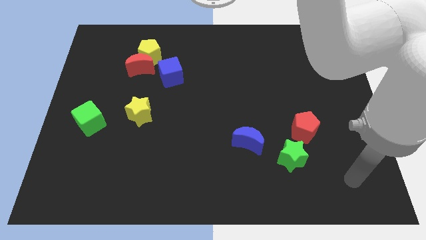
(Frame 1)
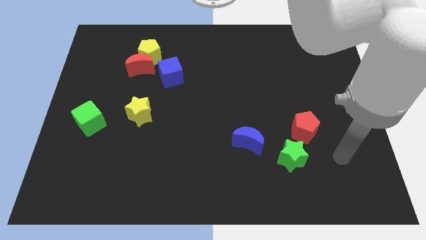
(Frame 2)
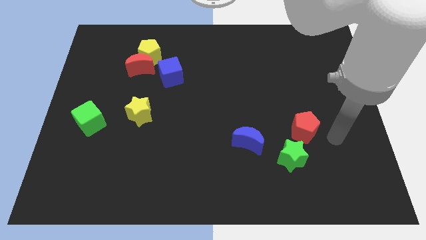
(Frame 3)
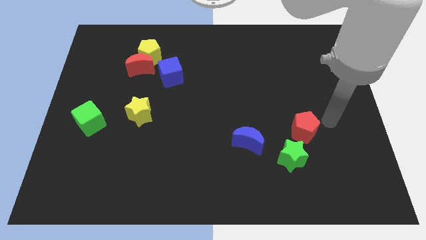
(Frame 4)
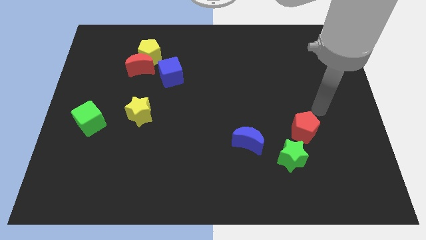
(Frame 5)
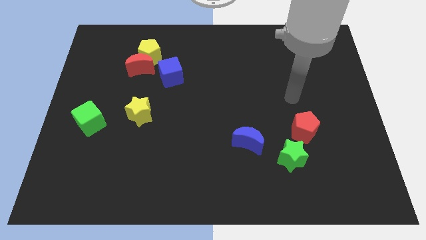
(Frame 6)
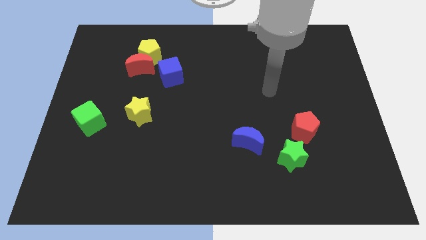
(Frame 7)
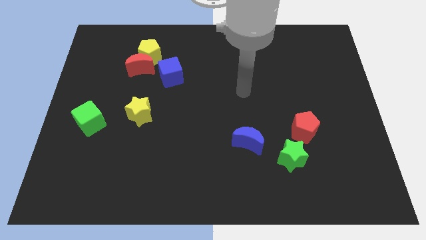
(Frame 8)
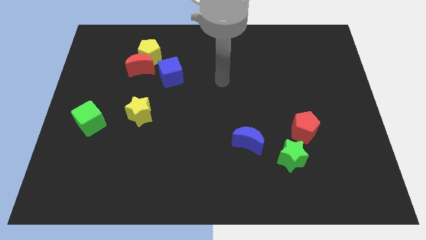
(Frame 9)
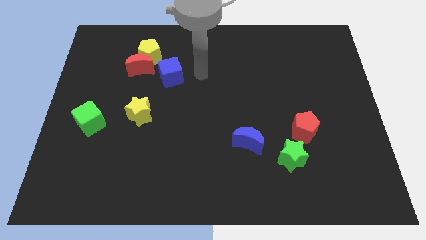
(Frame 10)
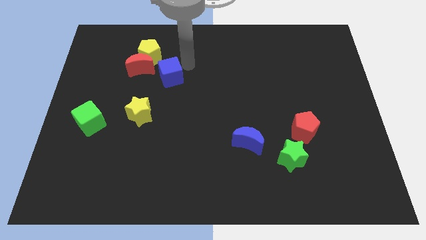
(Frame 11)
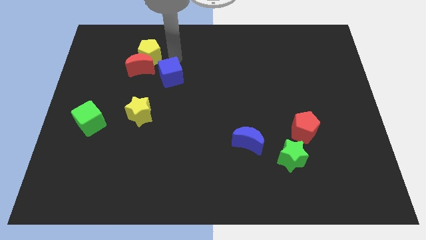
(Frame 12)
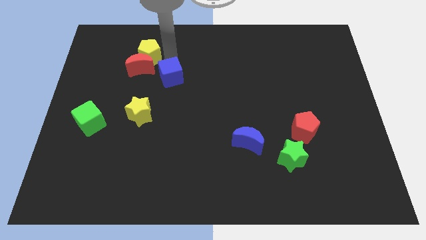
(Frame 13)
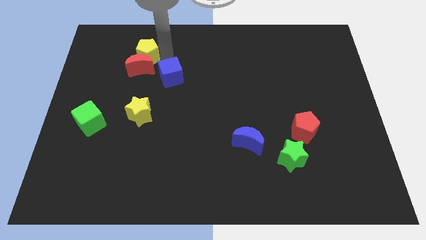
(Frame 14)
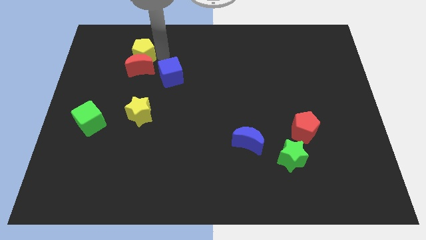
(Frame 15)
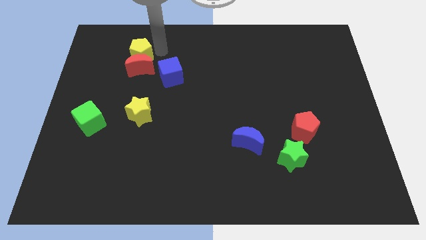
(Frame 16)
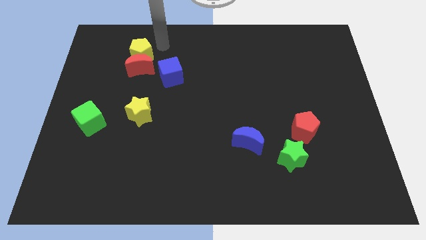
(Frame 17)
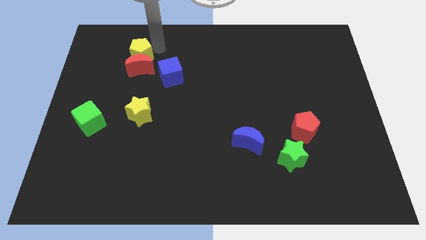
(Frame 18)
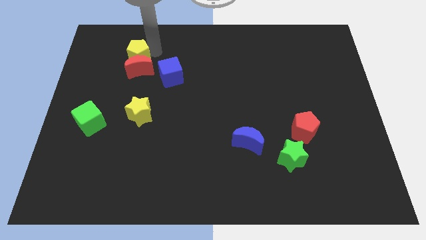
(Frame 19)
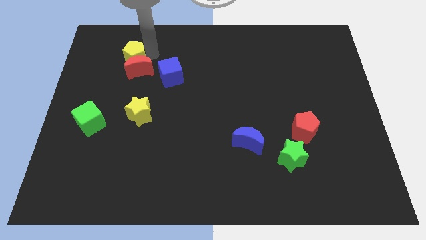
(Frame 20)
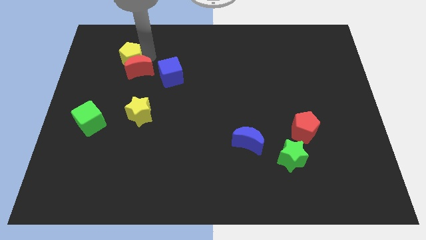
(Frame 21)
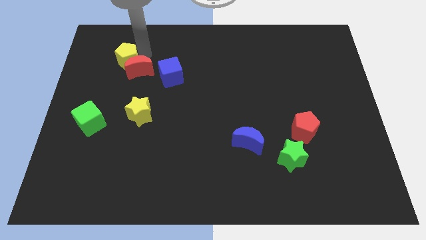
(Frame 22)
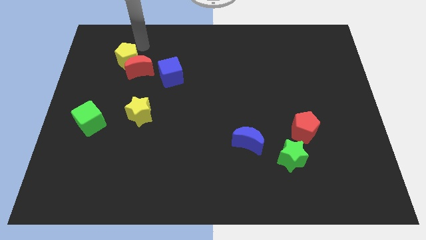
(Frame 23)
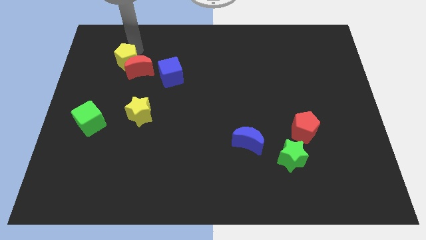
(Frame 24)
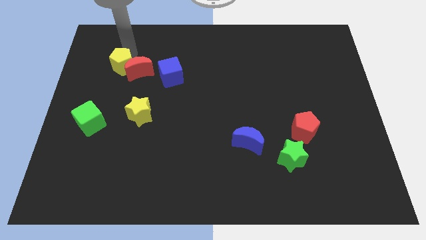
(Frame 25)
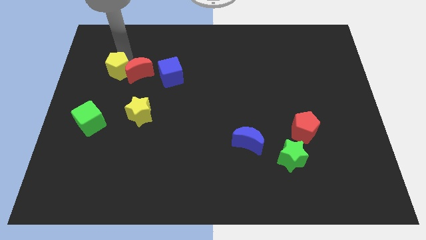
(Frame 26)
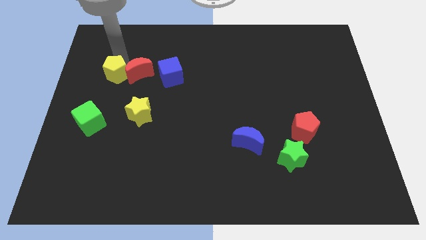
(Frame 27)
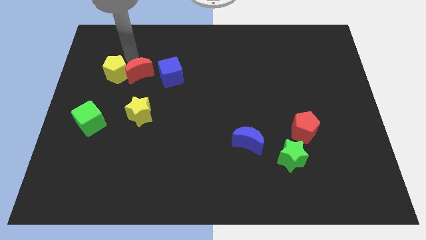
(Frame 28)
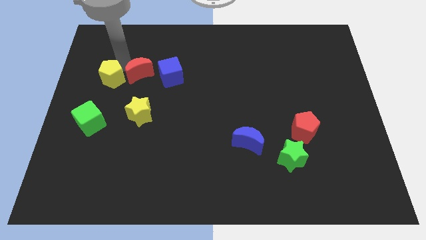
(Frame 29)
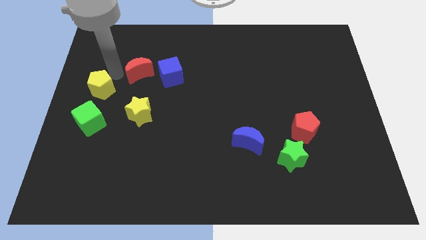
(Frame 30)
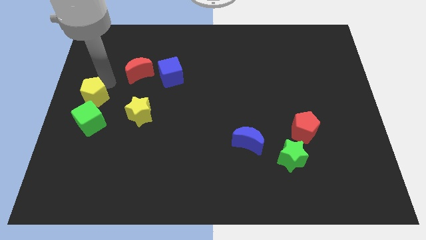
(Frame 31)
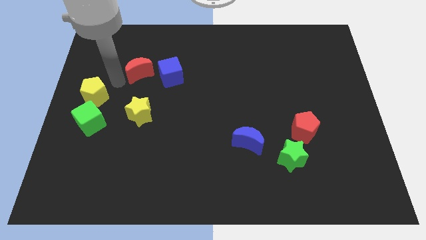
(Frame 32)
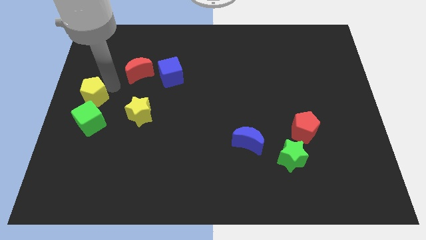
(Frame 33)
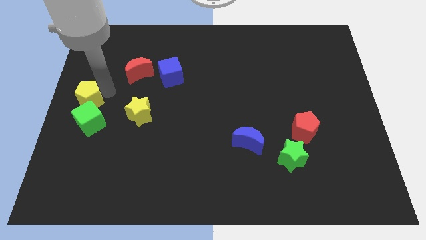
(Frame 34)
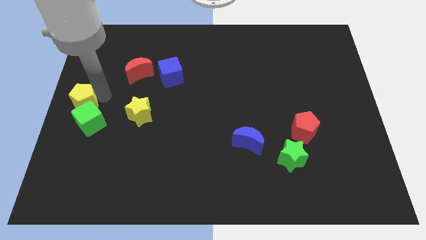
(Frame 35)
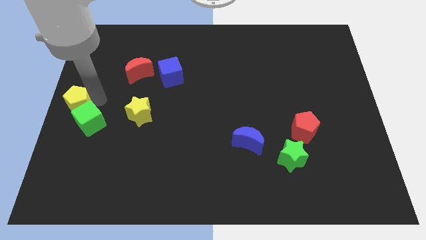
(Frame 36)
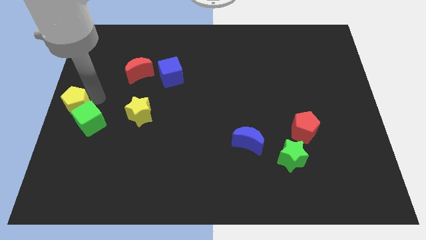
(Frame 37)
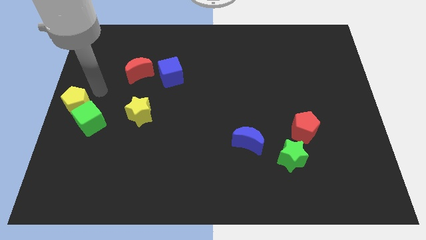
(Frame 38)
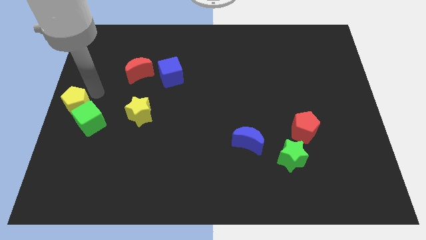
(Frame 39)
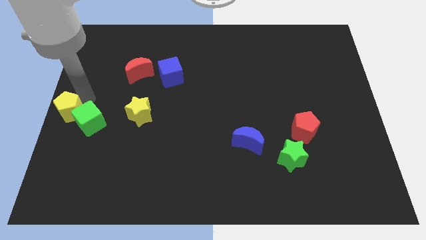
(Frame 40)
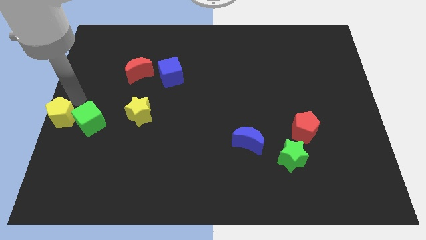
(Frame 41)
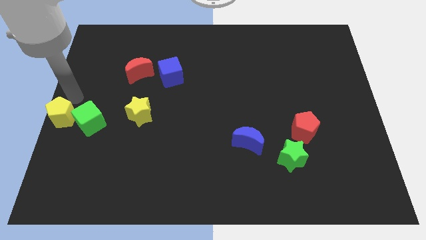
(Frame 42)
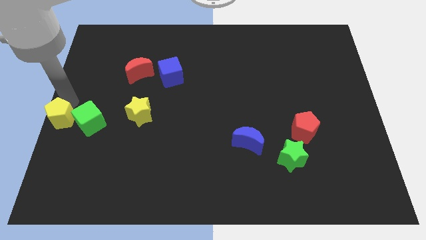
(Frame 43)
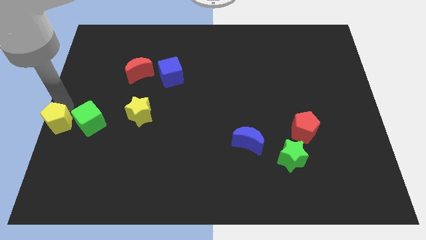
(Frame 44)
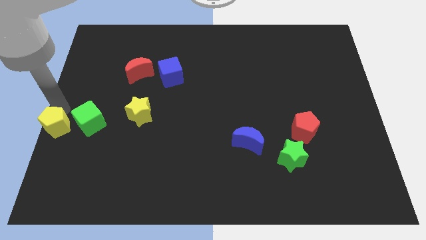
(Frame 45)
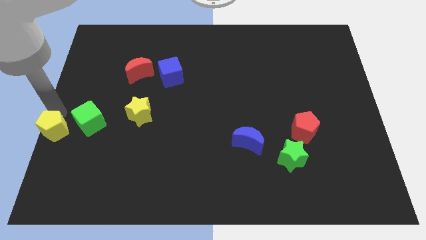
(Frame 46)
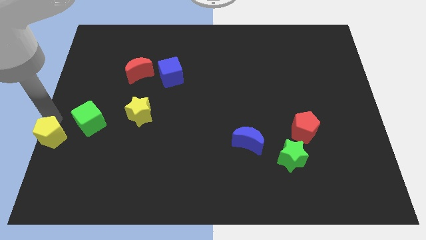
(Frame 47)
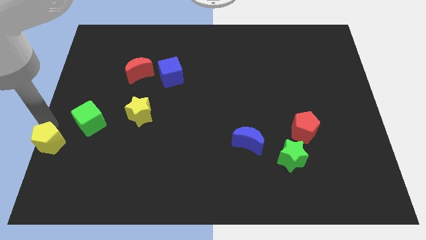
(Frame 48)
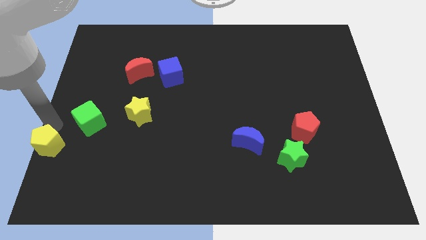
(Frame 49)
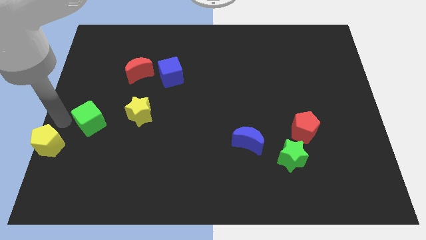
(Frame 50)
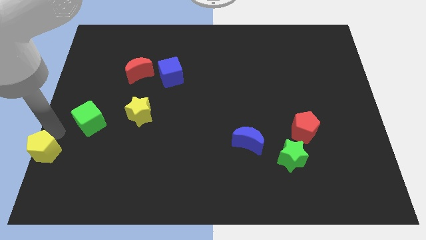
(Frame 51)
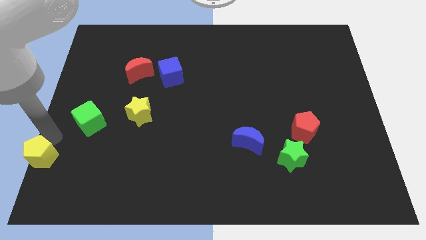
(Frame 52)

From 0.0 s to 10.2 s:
put the yellow pentagon to the bottom left

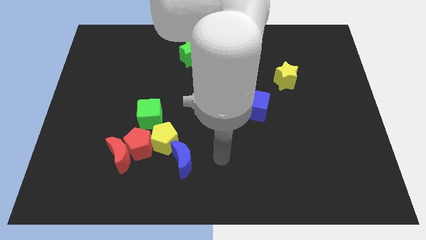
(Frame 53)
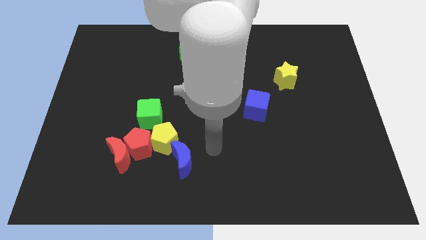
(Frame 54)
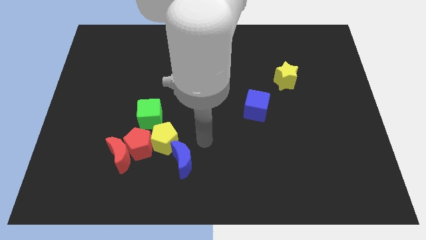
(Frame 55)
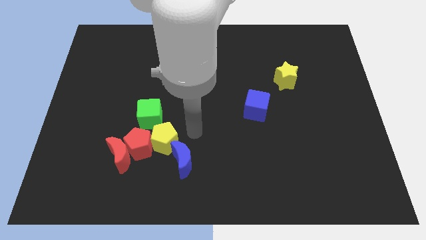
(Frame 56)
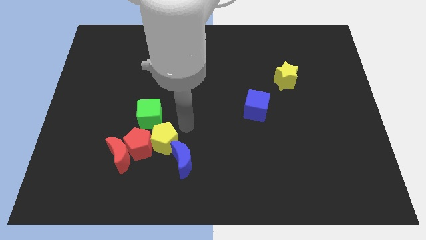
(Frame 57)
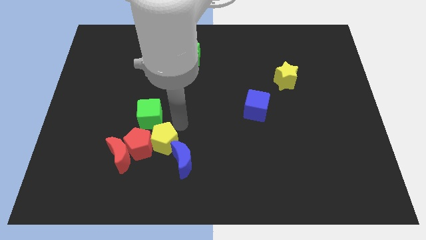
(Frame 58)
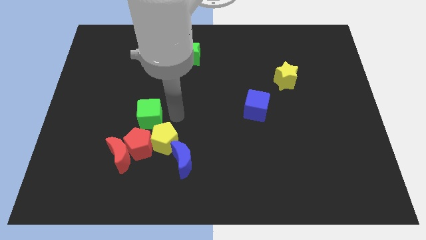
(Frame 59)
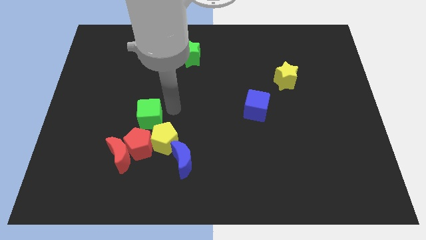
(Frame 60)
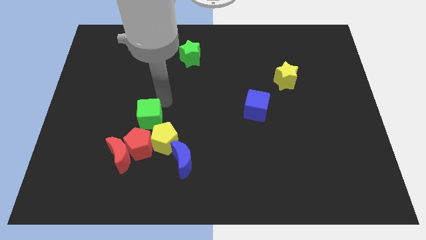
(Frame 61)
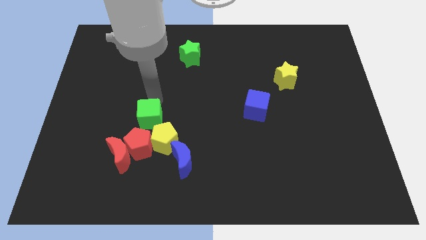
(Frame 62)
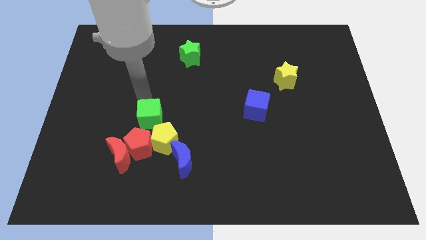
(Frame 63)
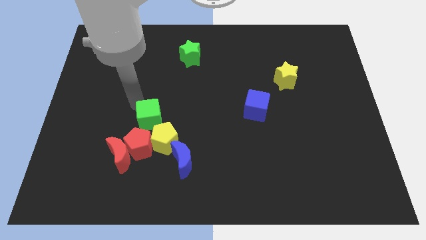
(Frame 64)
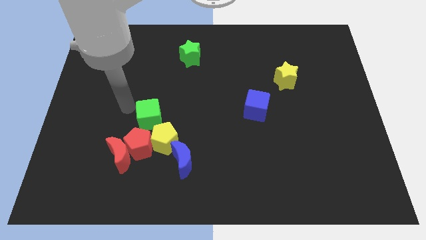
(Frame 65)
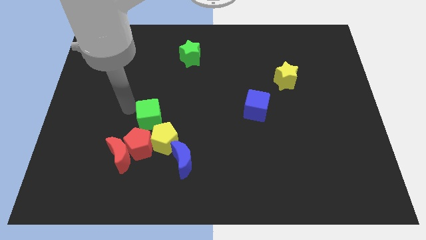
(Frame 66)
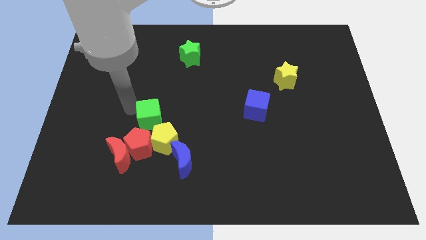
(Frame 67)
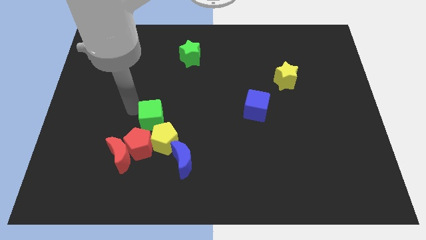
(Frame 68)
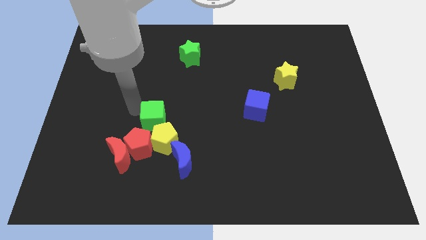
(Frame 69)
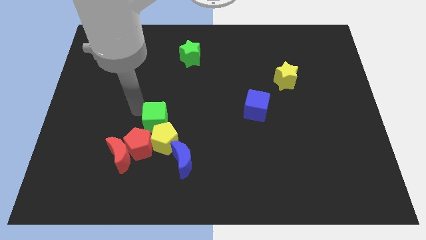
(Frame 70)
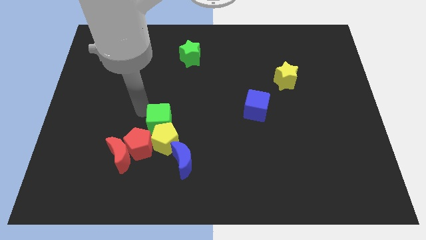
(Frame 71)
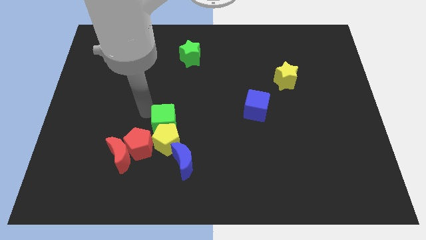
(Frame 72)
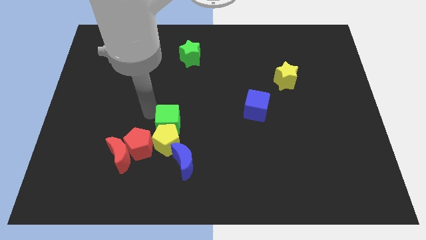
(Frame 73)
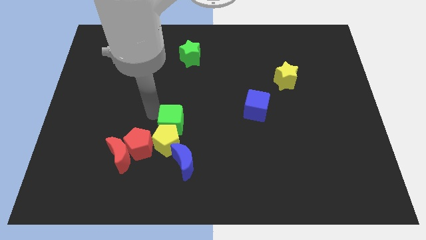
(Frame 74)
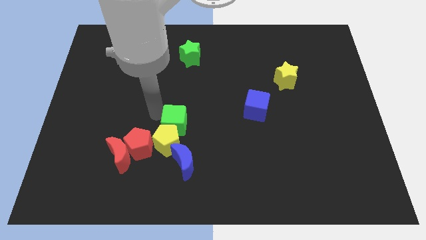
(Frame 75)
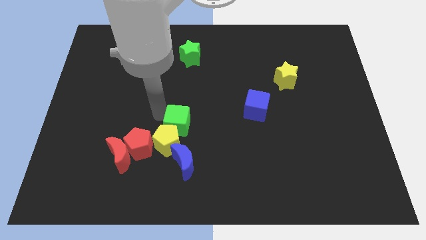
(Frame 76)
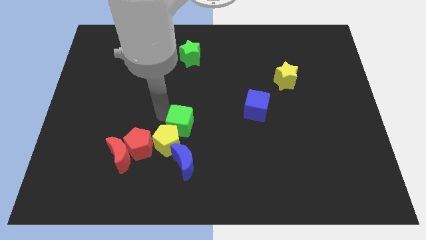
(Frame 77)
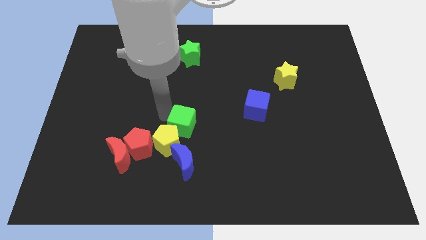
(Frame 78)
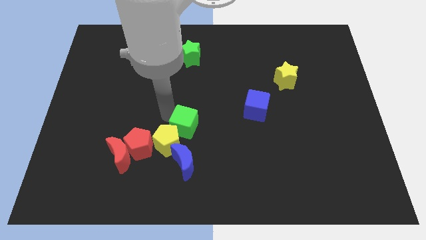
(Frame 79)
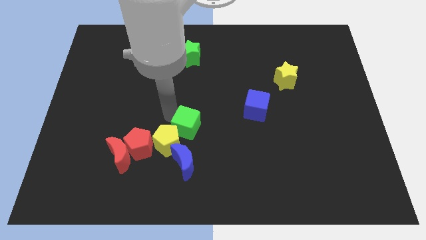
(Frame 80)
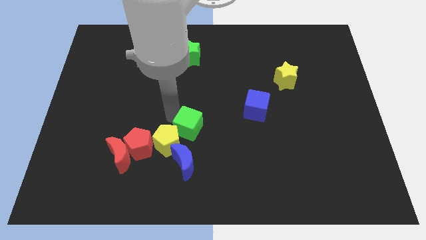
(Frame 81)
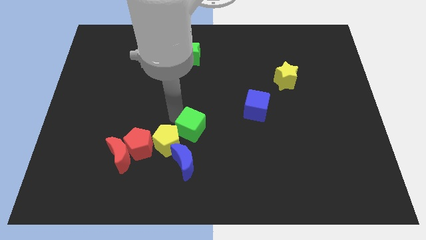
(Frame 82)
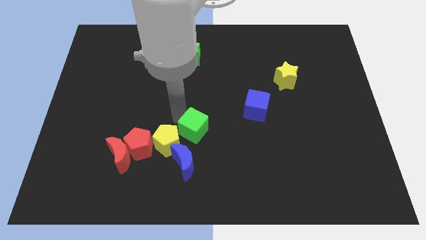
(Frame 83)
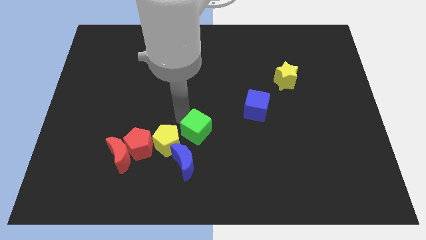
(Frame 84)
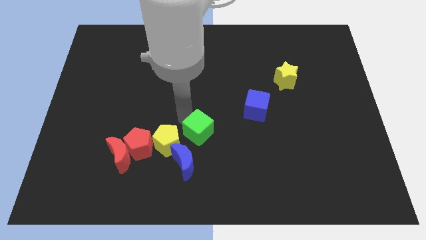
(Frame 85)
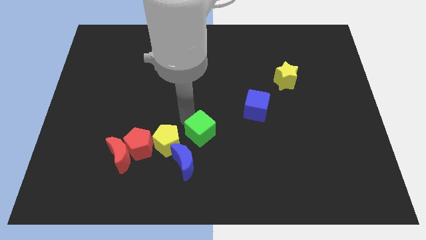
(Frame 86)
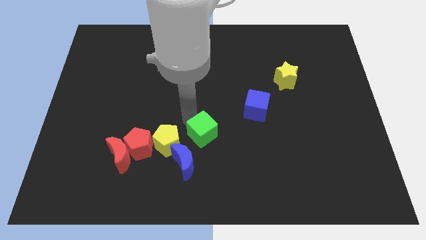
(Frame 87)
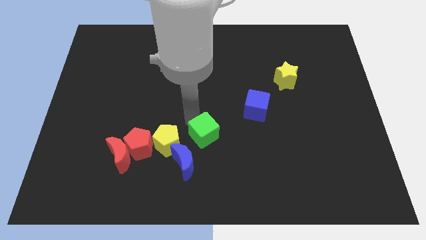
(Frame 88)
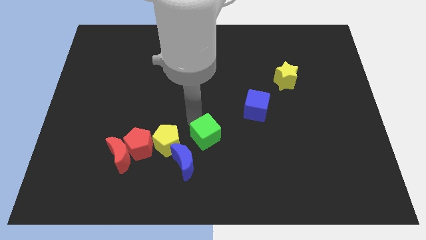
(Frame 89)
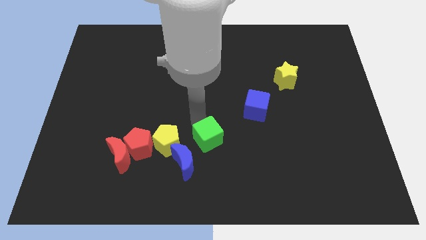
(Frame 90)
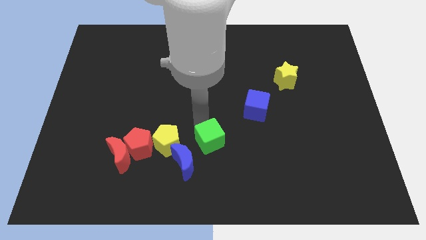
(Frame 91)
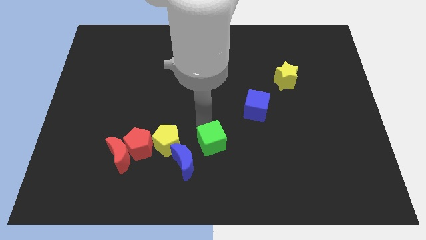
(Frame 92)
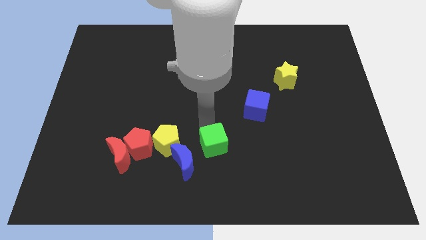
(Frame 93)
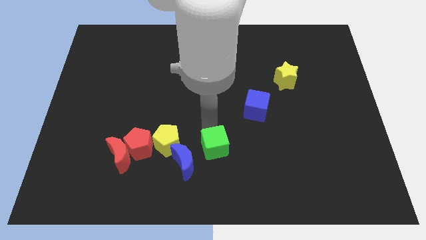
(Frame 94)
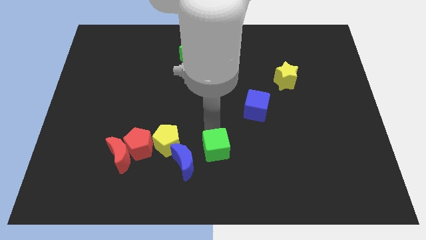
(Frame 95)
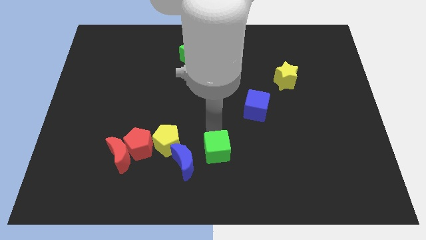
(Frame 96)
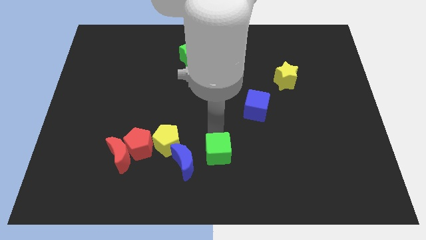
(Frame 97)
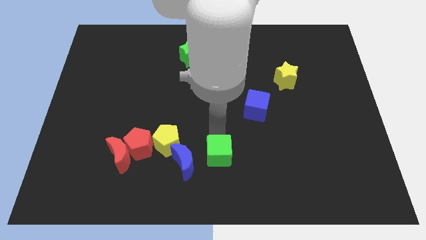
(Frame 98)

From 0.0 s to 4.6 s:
put the green cube to the bottom
